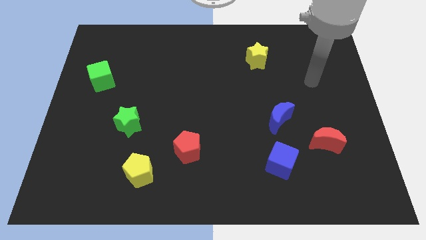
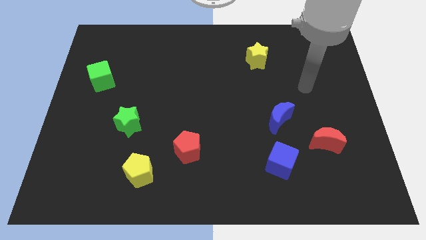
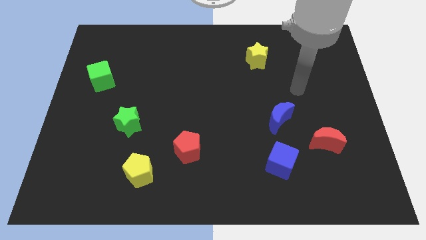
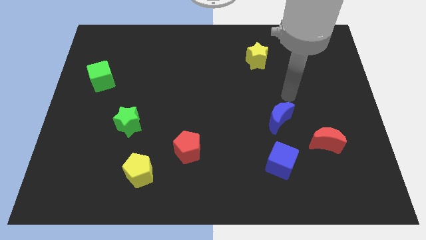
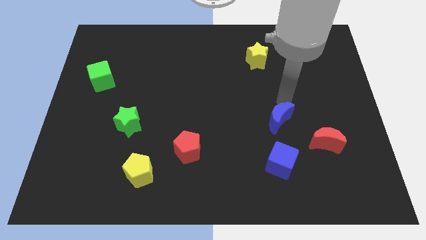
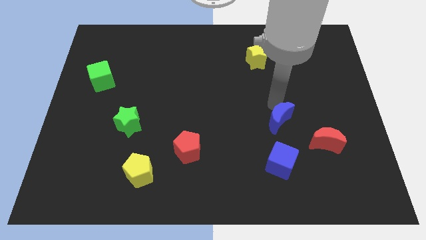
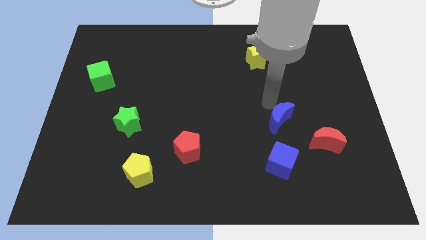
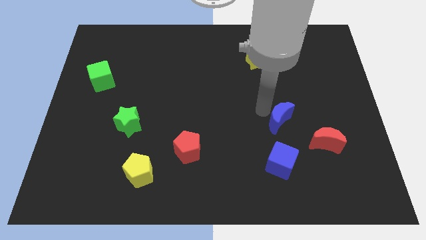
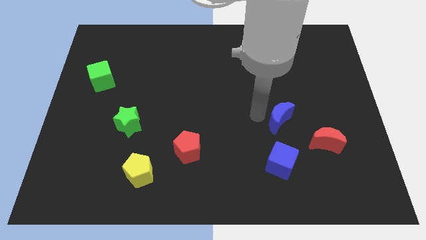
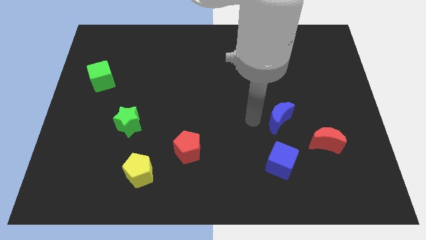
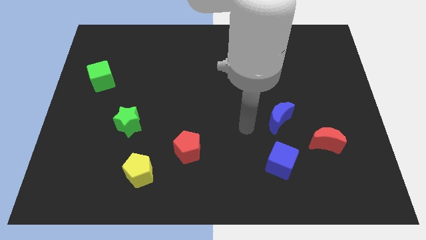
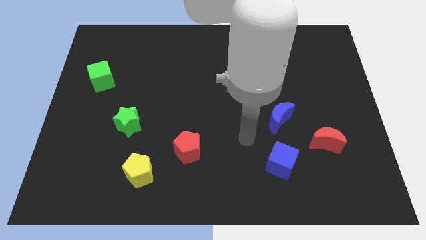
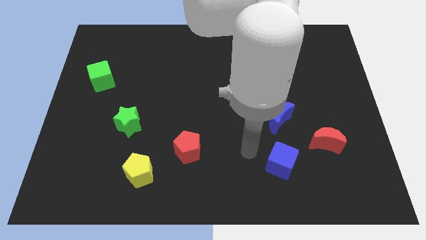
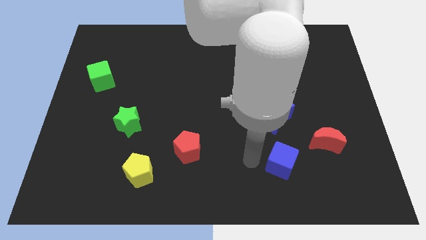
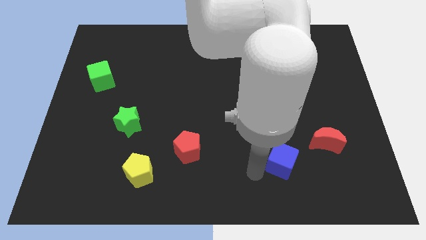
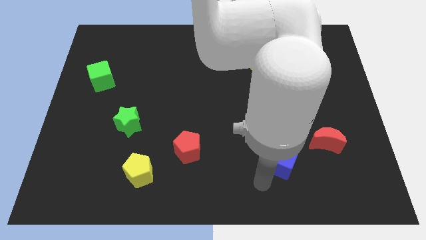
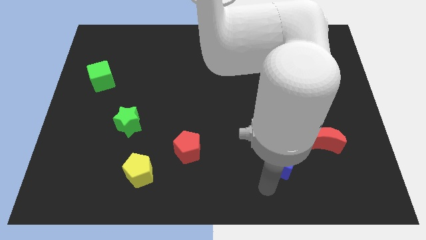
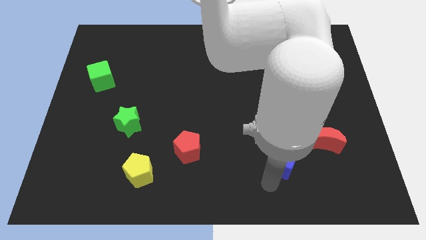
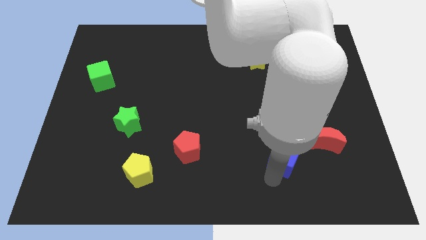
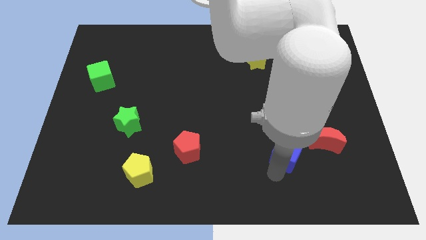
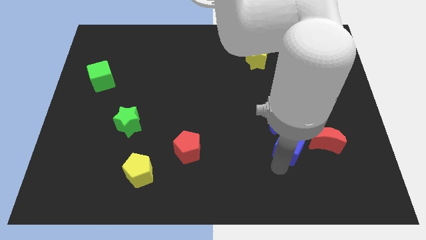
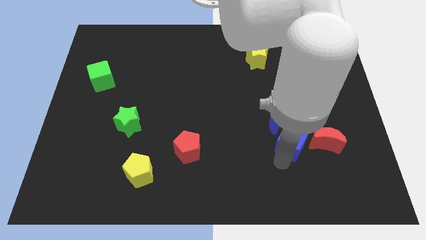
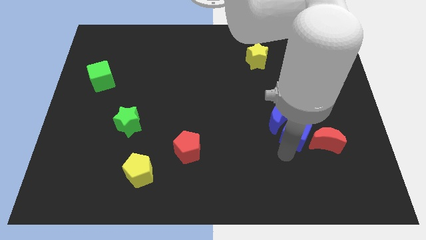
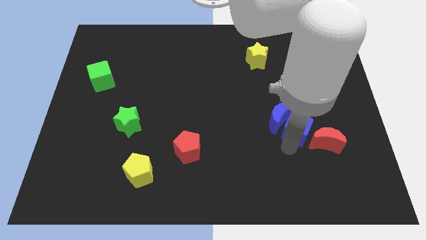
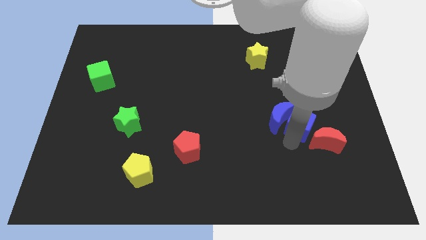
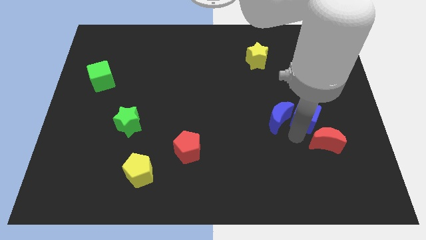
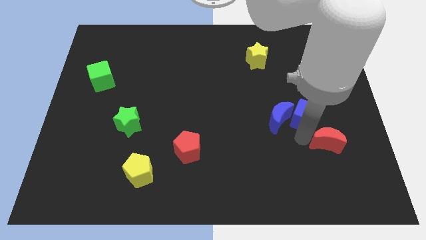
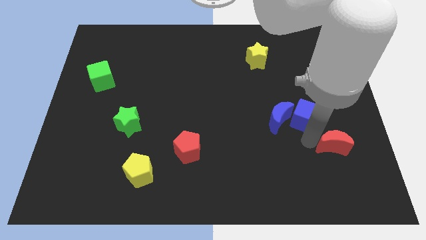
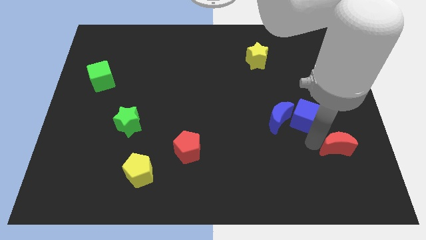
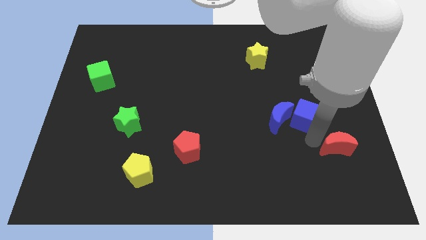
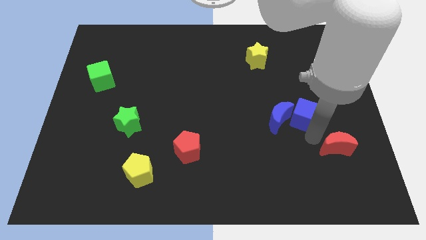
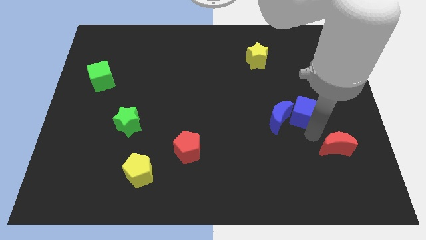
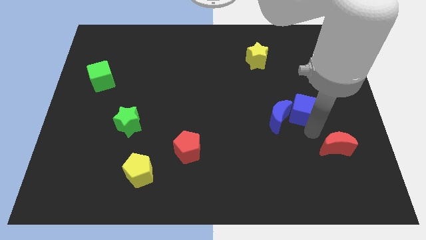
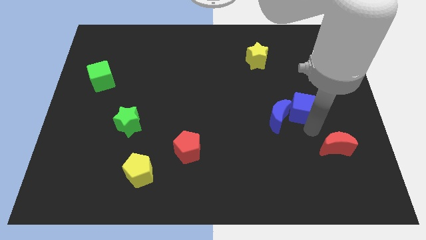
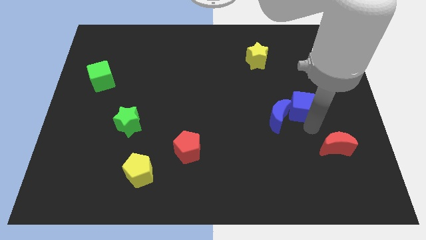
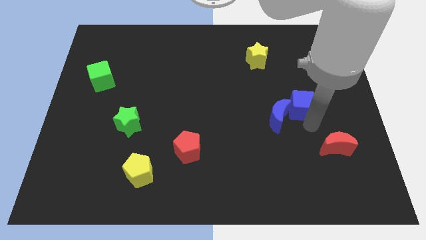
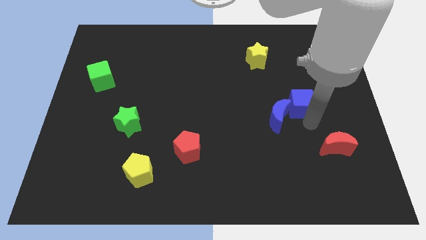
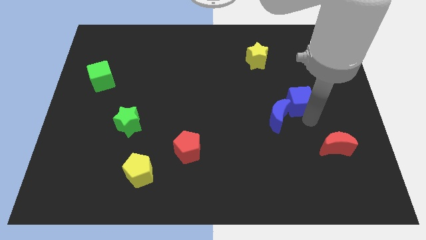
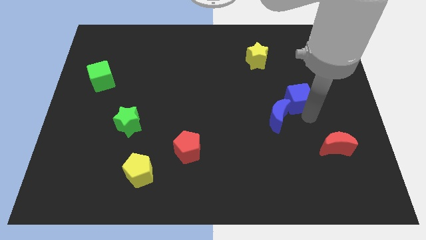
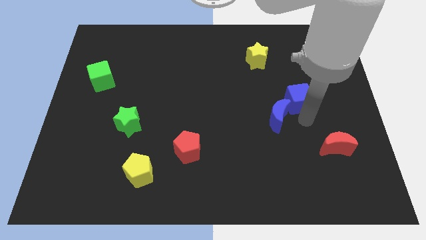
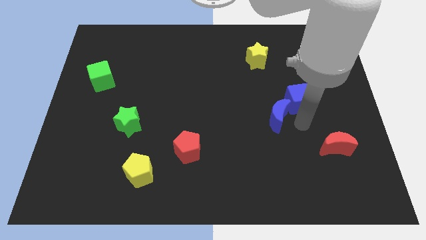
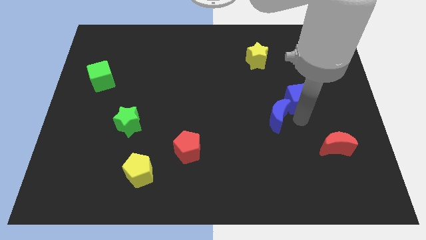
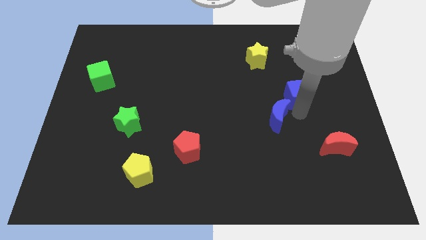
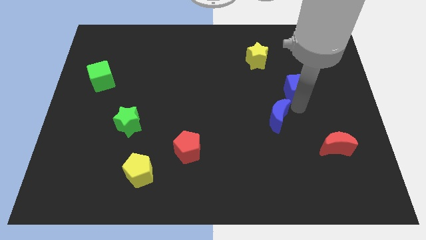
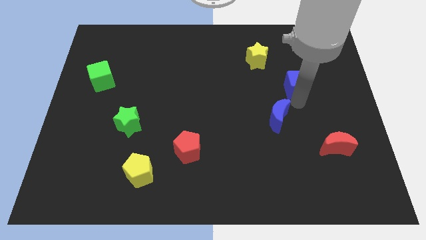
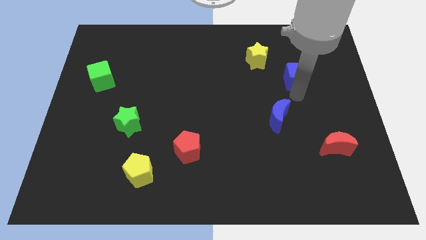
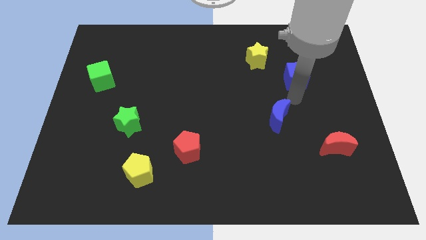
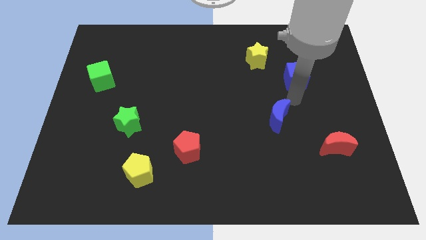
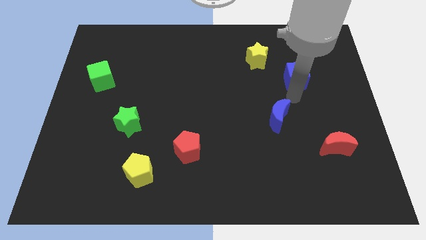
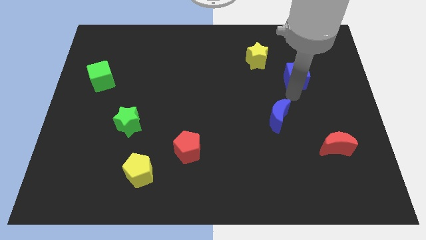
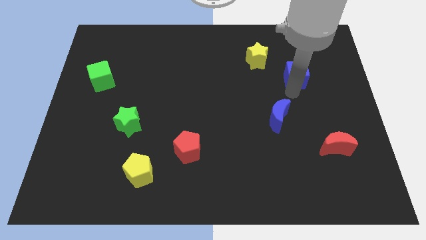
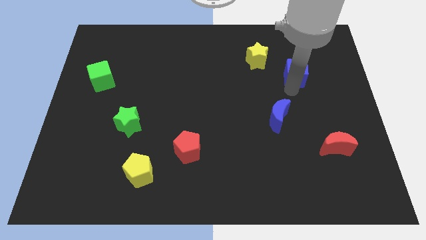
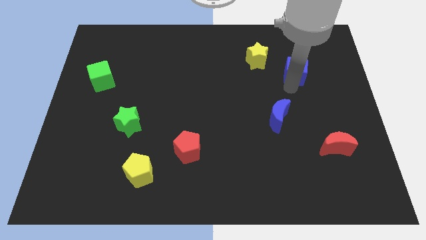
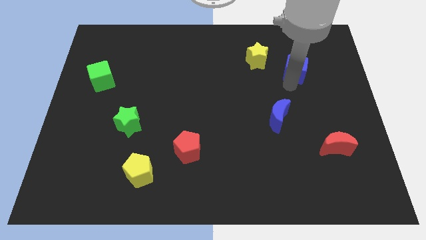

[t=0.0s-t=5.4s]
put the blue cube right of the yellow star

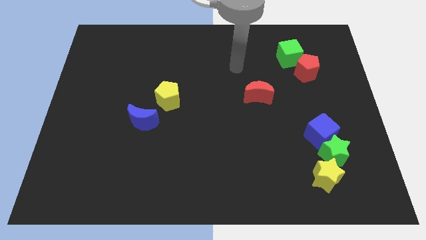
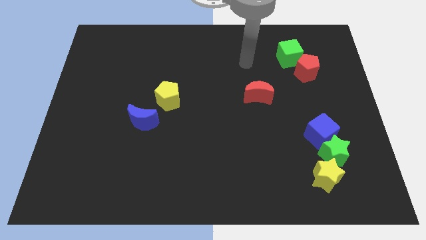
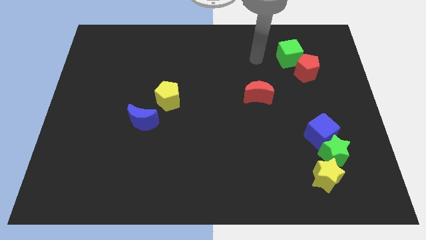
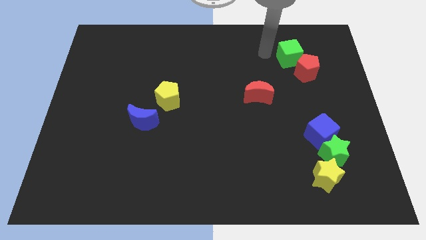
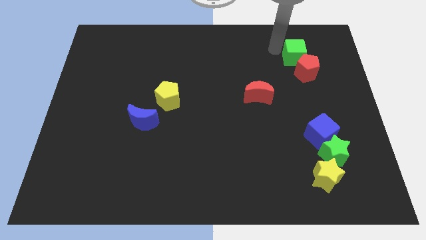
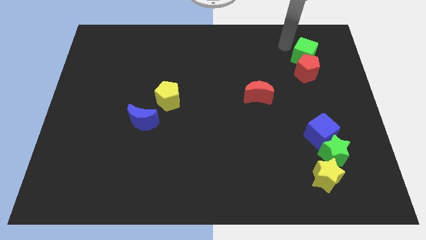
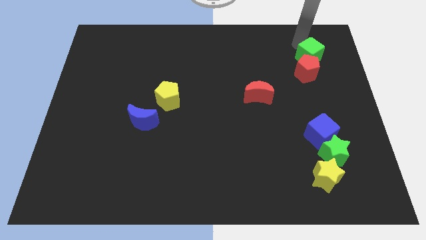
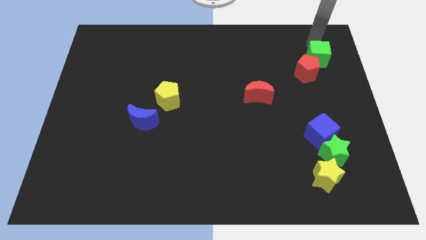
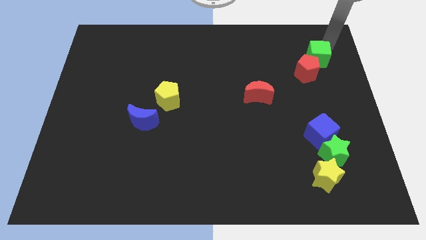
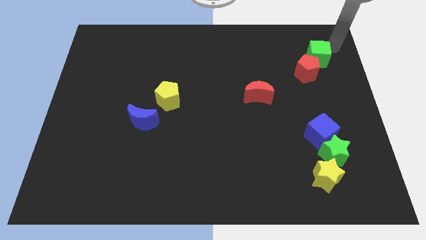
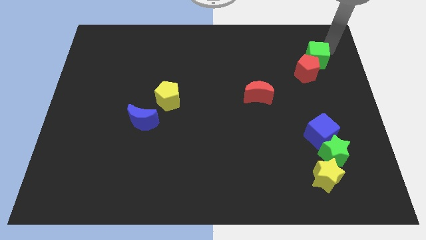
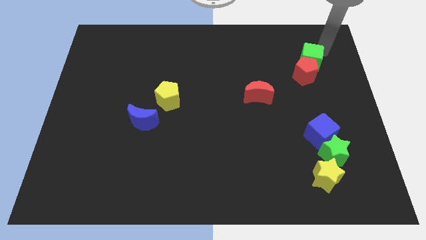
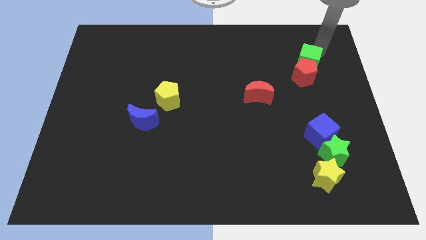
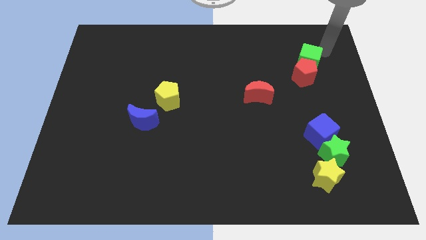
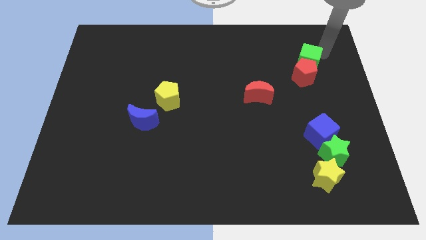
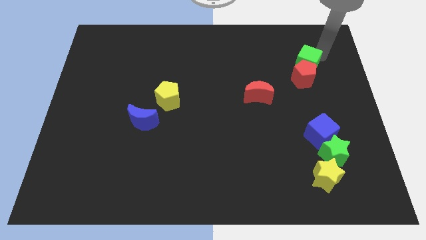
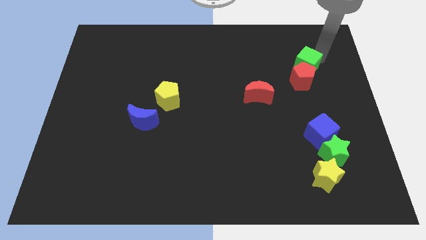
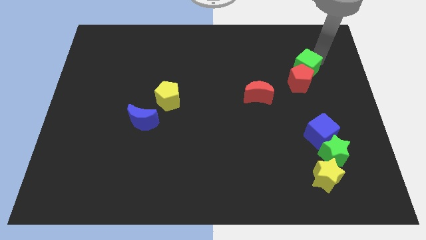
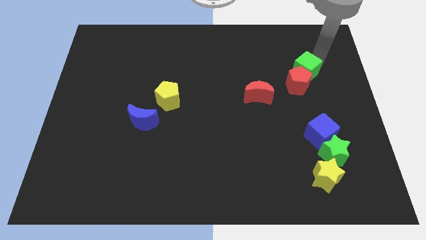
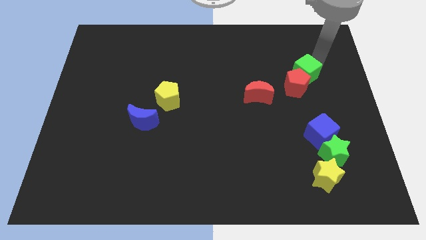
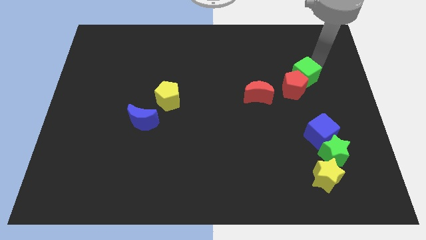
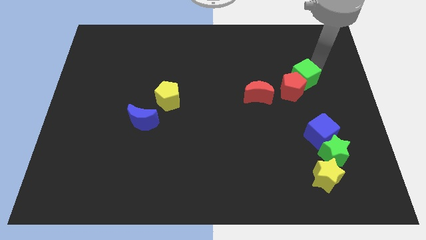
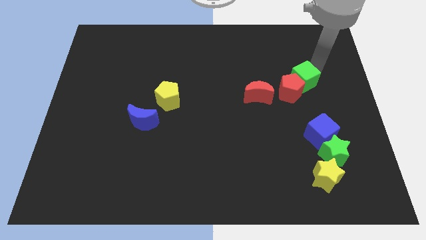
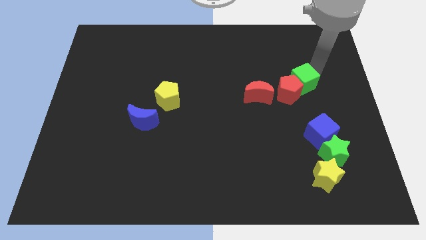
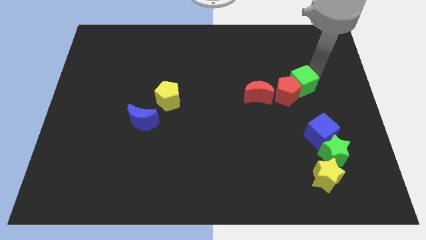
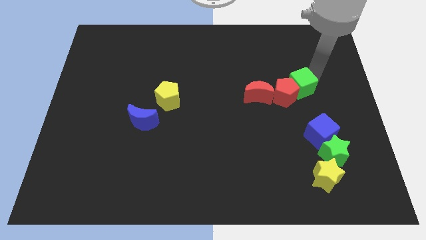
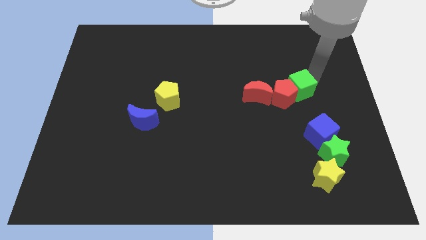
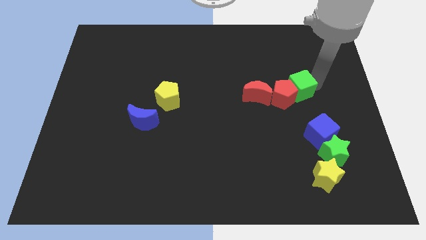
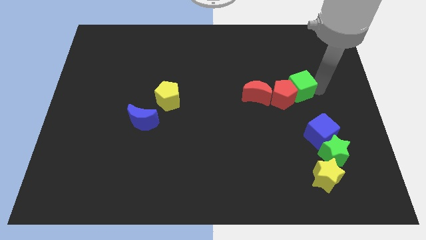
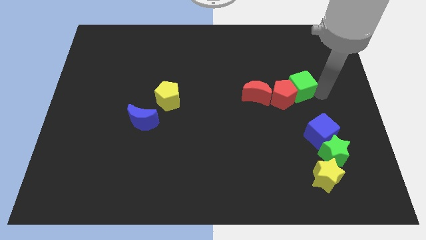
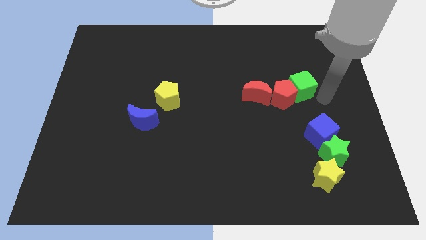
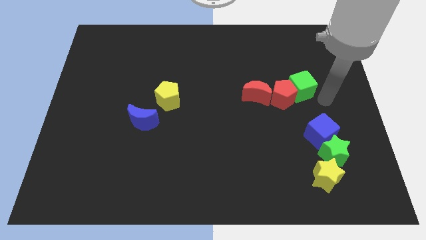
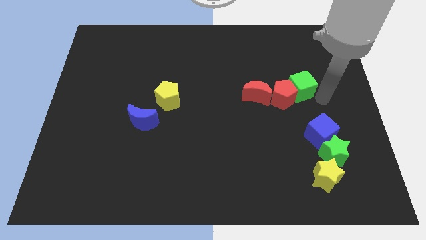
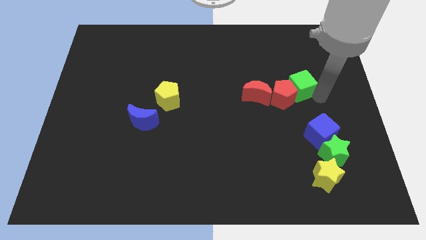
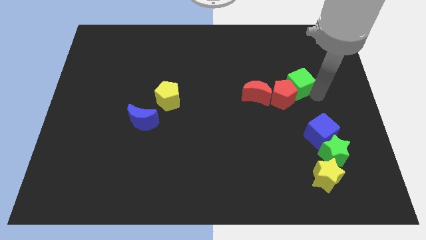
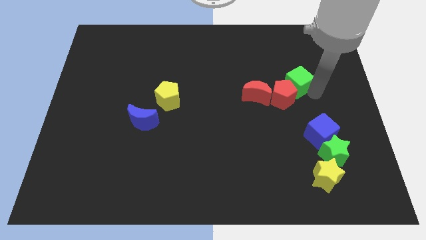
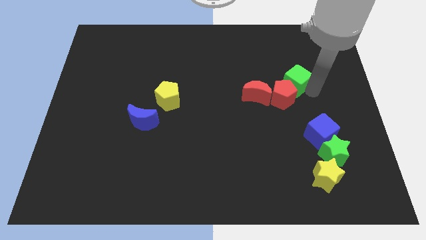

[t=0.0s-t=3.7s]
push the green cube diagonally up and to the right of the red moon
